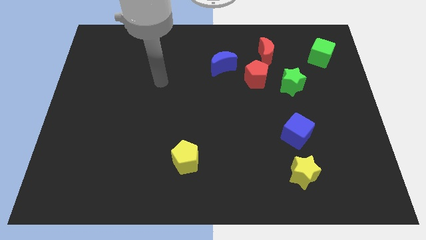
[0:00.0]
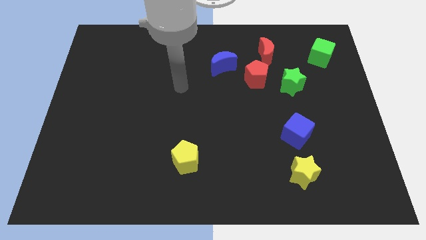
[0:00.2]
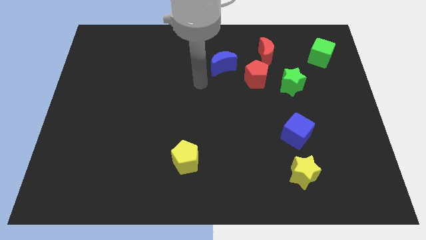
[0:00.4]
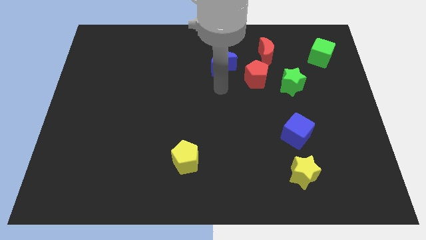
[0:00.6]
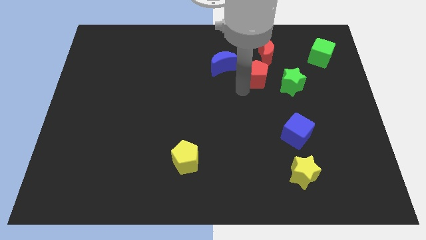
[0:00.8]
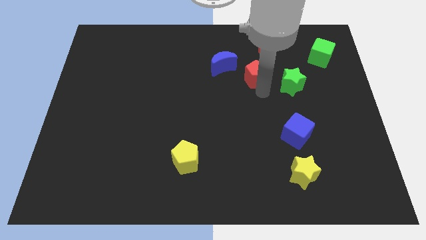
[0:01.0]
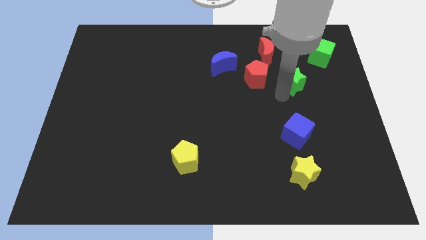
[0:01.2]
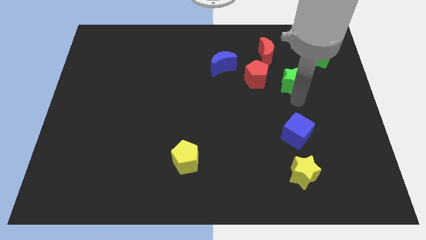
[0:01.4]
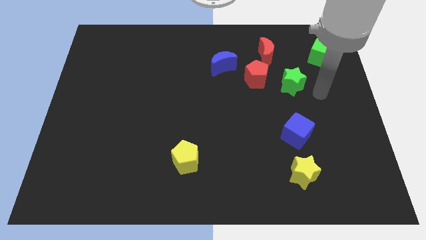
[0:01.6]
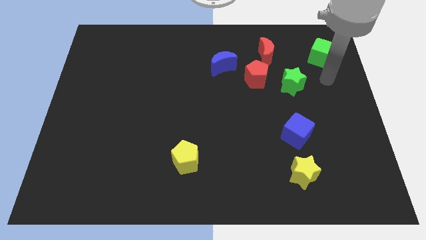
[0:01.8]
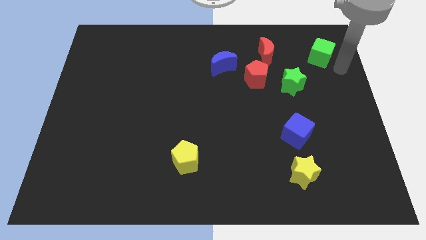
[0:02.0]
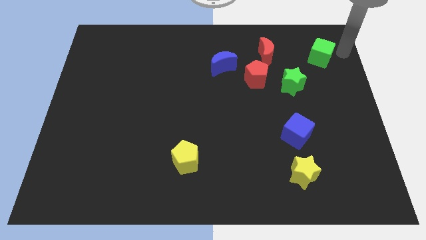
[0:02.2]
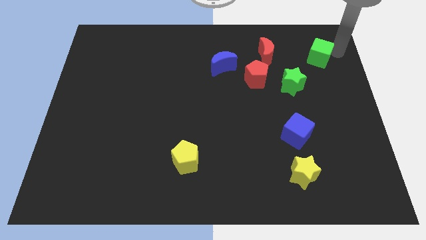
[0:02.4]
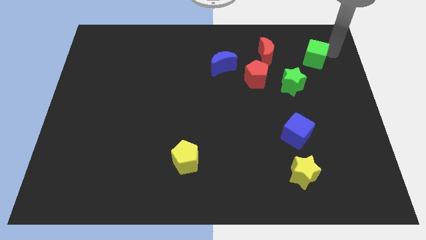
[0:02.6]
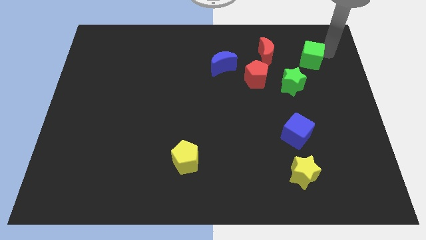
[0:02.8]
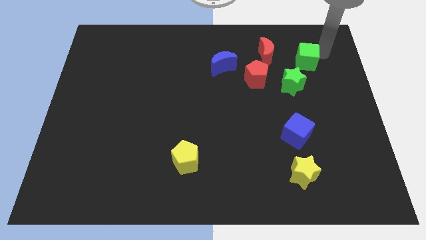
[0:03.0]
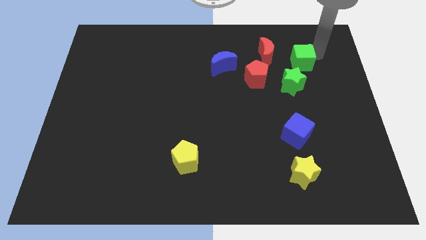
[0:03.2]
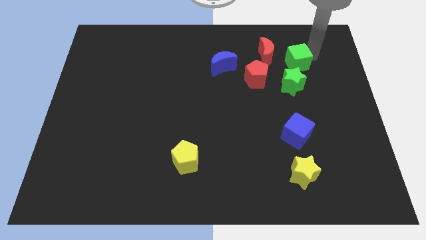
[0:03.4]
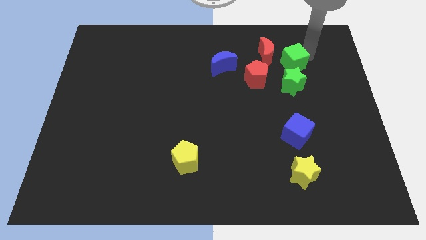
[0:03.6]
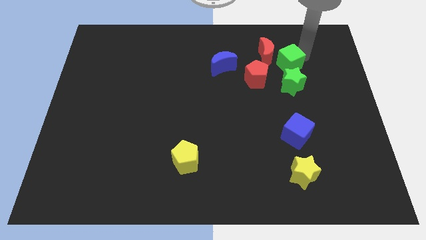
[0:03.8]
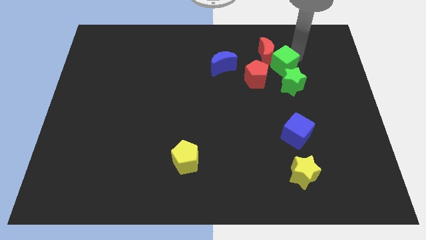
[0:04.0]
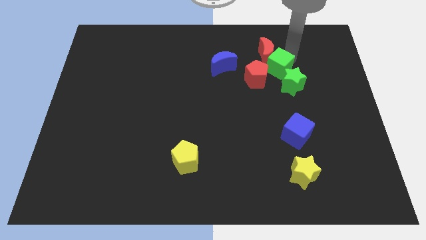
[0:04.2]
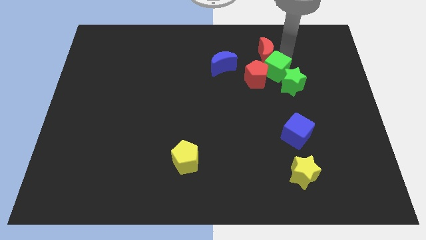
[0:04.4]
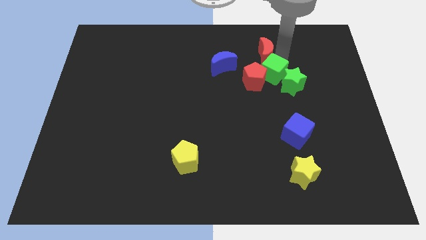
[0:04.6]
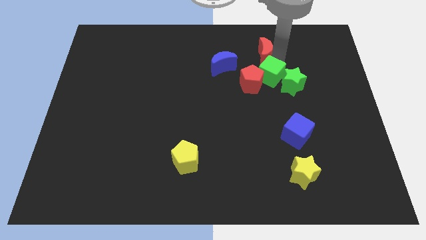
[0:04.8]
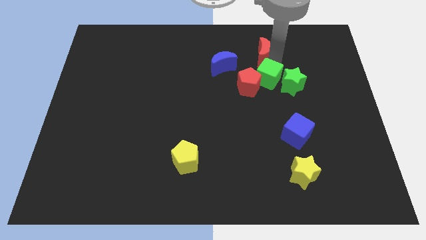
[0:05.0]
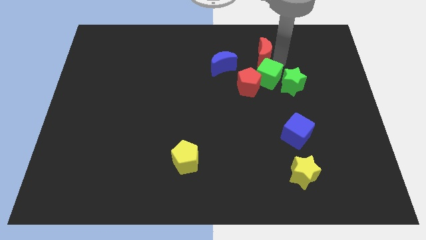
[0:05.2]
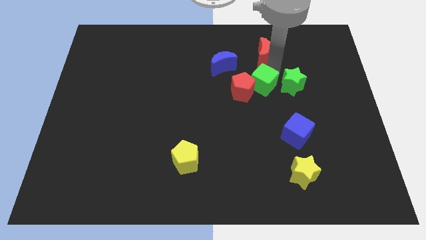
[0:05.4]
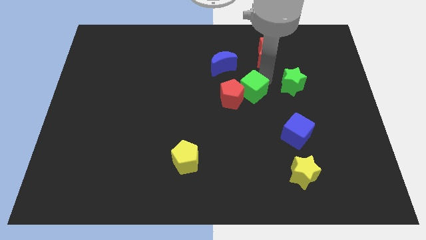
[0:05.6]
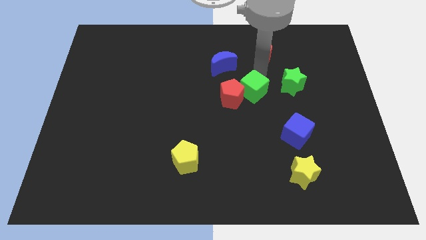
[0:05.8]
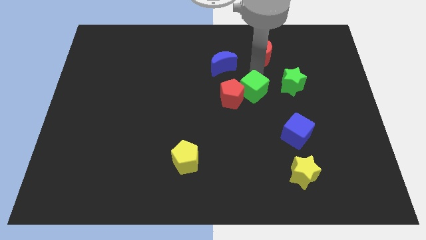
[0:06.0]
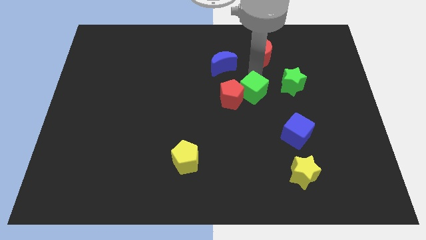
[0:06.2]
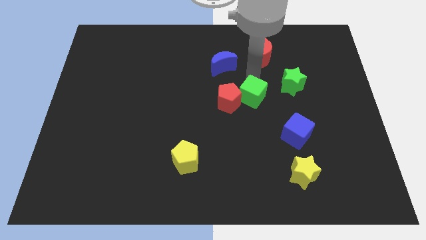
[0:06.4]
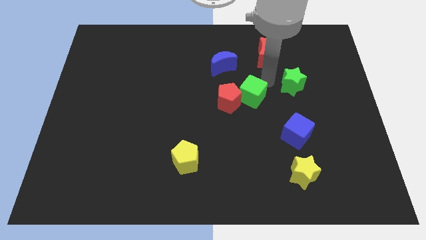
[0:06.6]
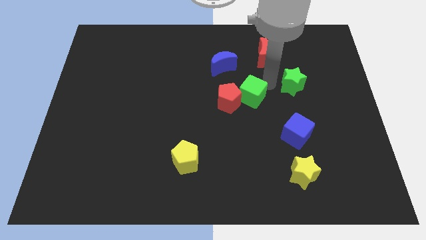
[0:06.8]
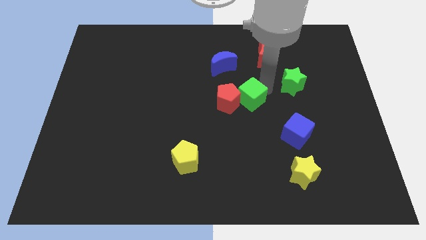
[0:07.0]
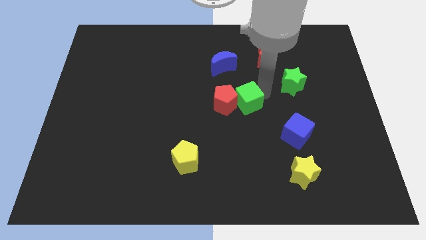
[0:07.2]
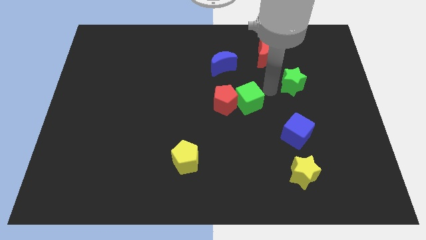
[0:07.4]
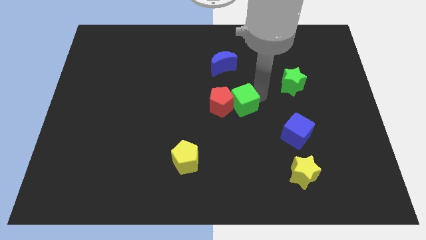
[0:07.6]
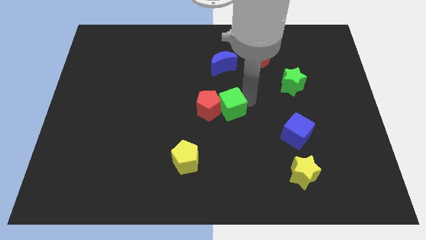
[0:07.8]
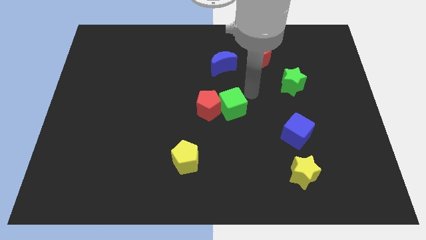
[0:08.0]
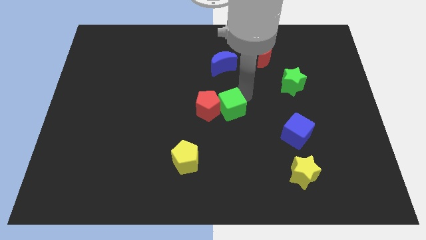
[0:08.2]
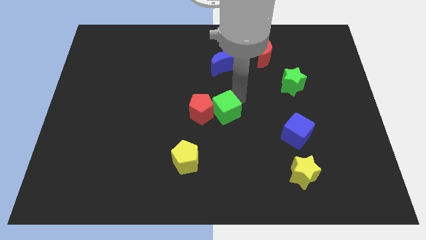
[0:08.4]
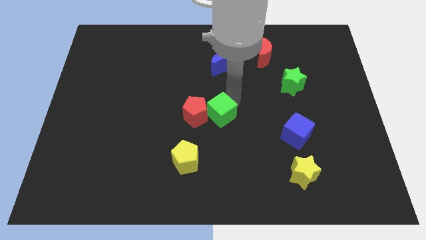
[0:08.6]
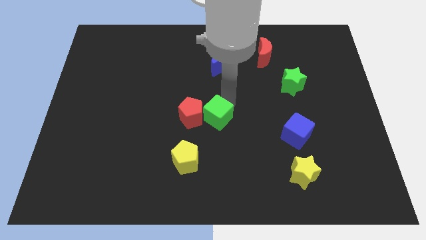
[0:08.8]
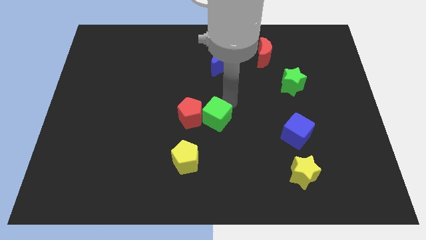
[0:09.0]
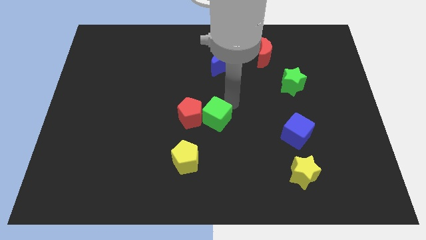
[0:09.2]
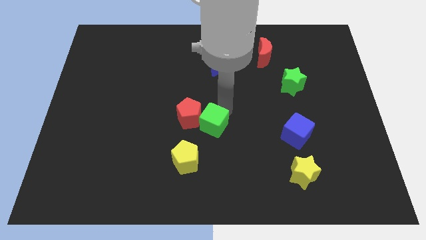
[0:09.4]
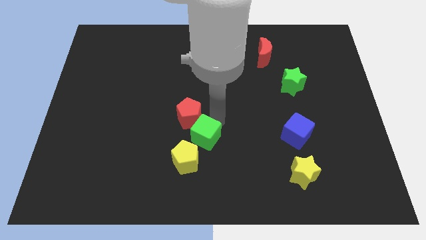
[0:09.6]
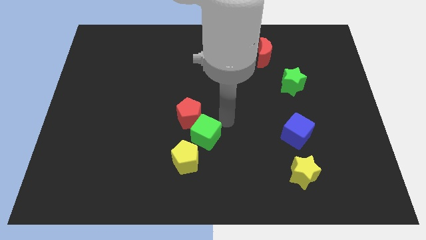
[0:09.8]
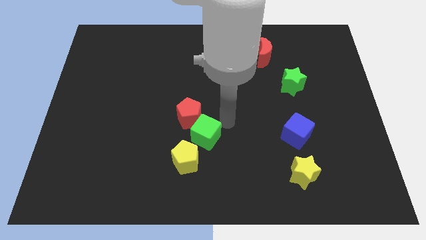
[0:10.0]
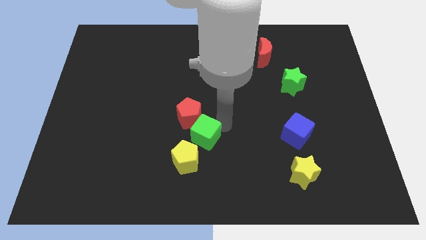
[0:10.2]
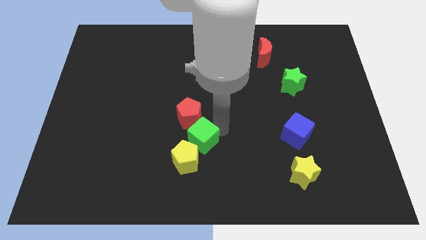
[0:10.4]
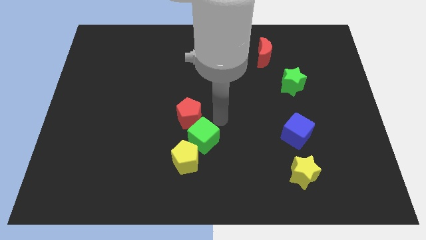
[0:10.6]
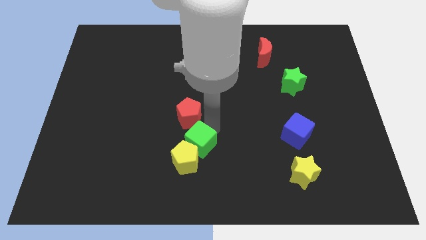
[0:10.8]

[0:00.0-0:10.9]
put the green cube close to the yellow pentagon

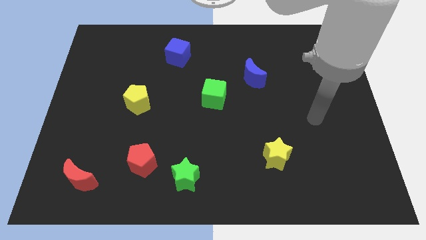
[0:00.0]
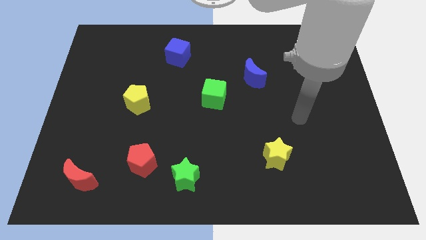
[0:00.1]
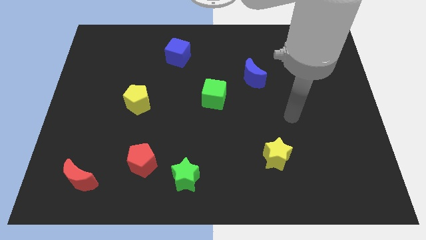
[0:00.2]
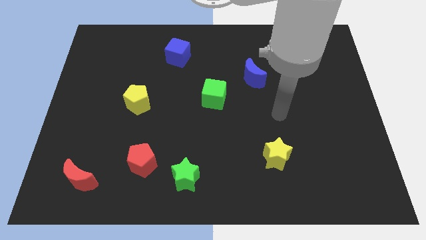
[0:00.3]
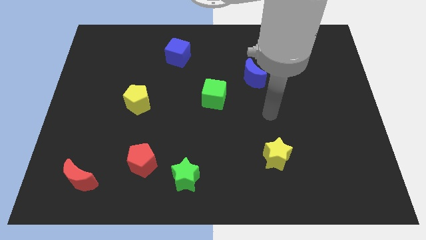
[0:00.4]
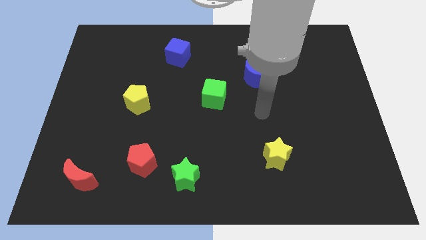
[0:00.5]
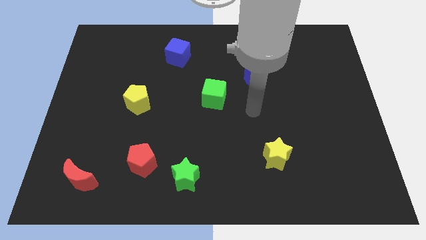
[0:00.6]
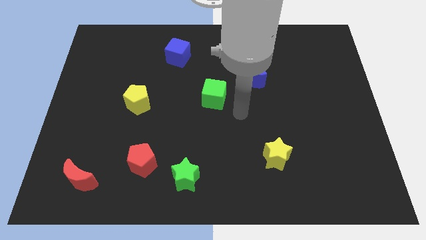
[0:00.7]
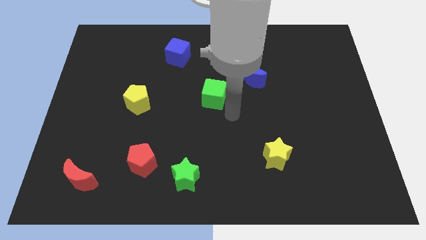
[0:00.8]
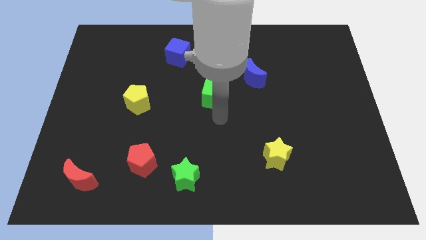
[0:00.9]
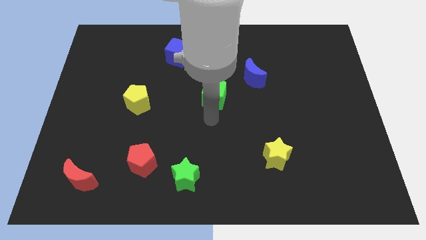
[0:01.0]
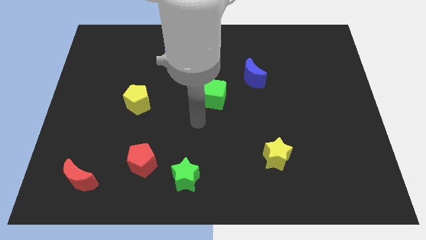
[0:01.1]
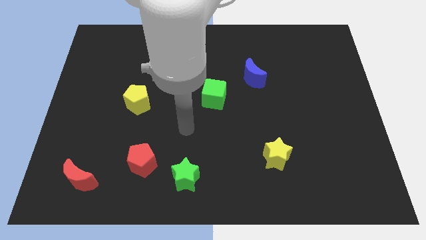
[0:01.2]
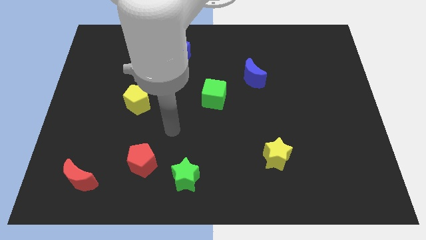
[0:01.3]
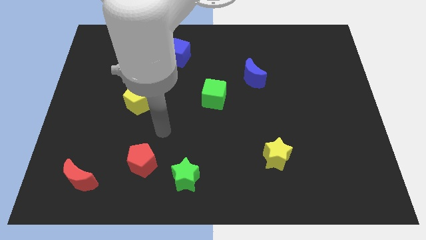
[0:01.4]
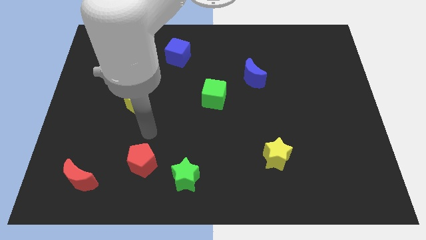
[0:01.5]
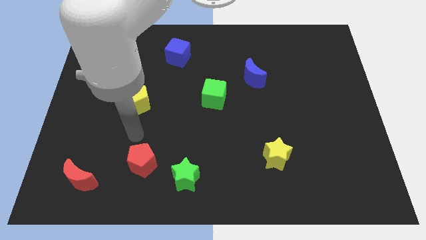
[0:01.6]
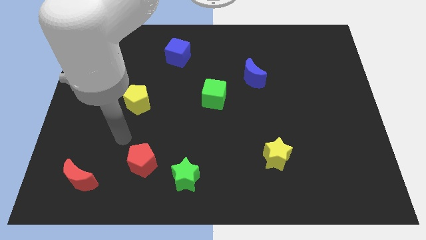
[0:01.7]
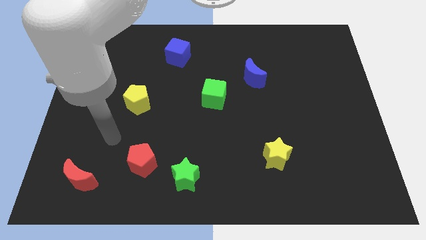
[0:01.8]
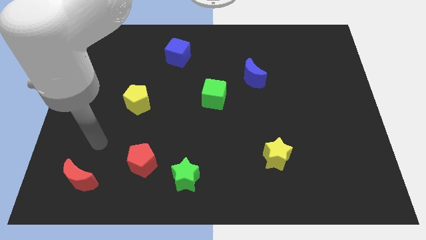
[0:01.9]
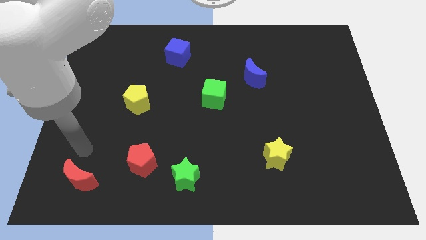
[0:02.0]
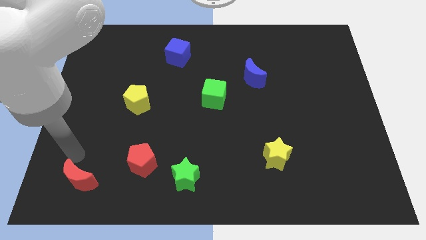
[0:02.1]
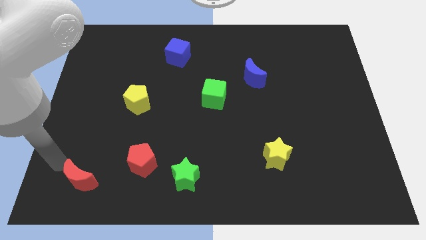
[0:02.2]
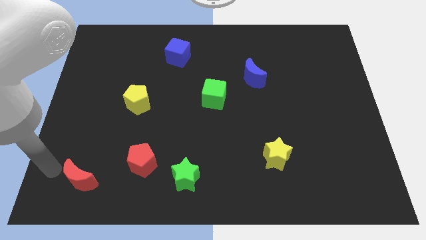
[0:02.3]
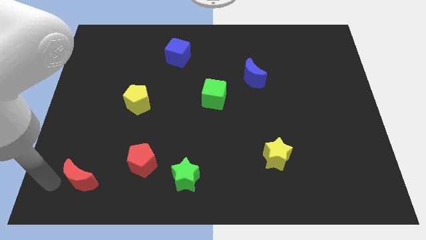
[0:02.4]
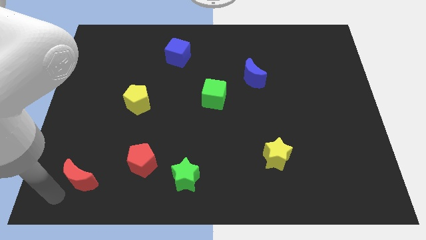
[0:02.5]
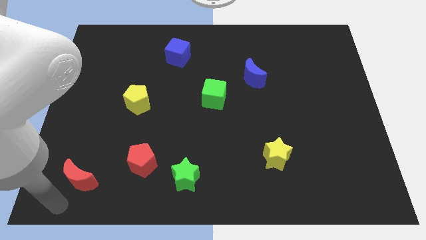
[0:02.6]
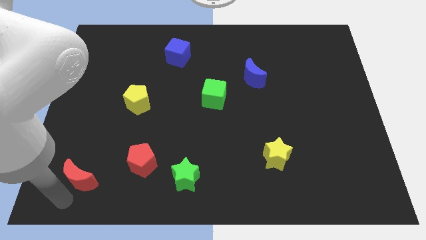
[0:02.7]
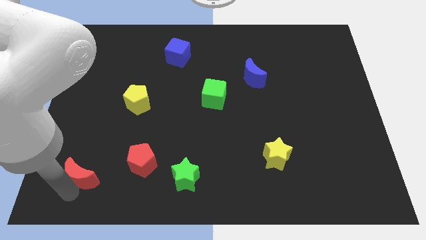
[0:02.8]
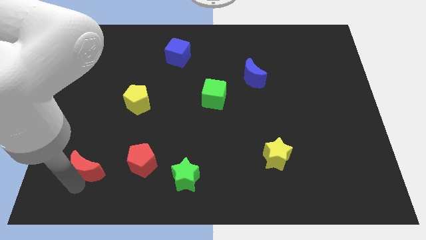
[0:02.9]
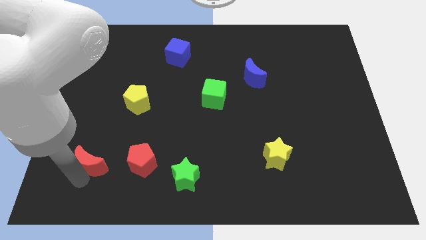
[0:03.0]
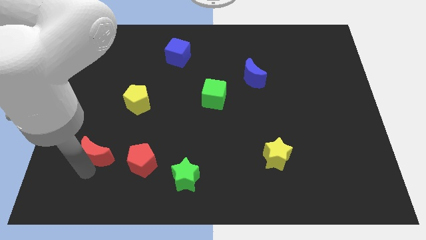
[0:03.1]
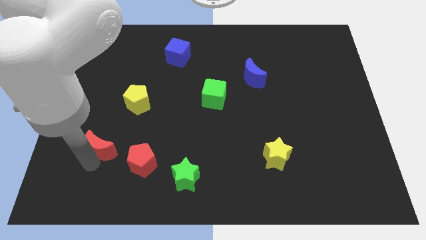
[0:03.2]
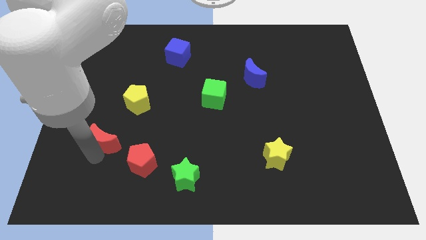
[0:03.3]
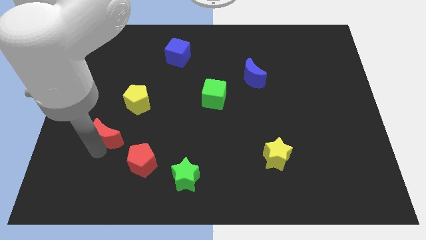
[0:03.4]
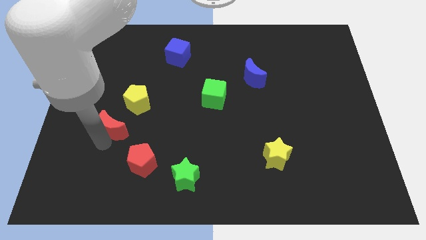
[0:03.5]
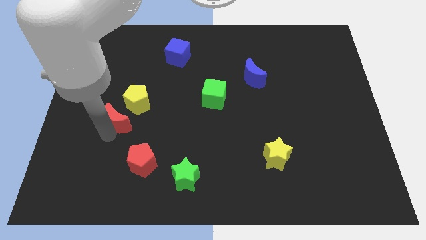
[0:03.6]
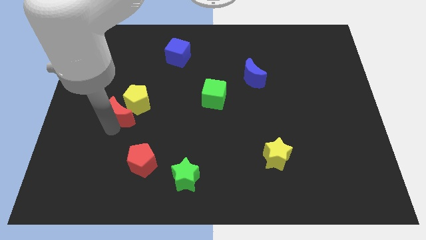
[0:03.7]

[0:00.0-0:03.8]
move the red moon close to the yellow pentagon
